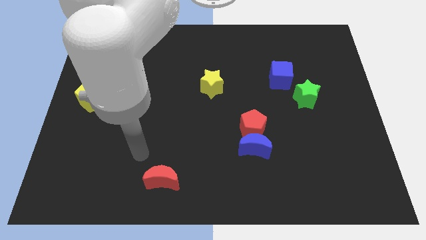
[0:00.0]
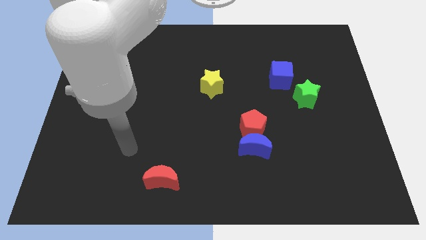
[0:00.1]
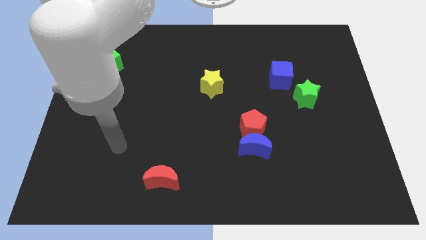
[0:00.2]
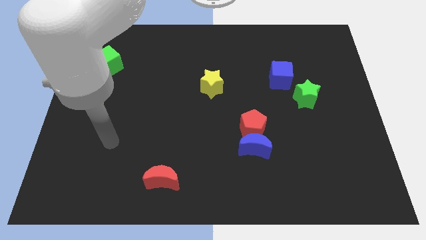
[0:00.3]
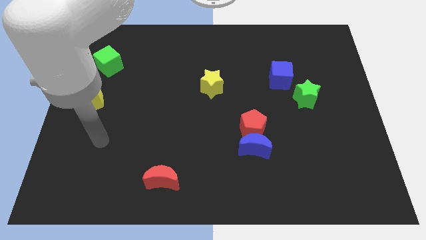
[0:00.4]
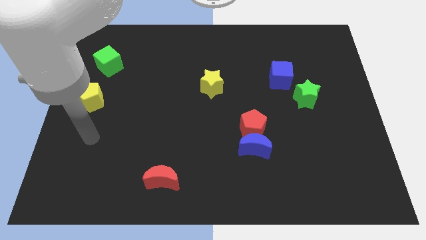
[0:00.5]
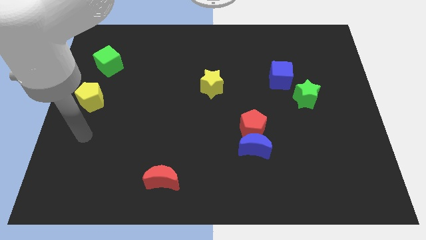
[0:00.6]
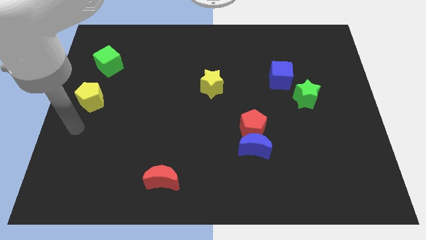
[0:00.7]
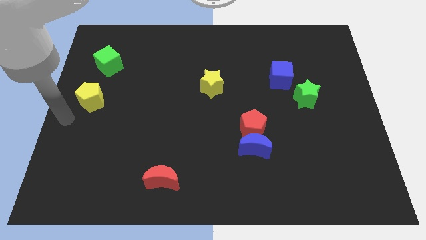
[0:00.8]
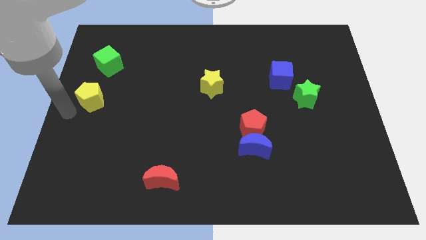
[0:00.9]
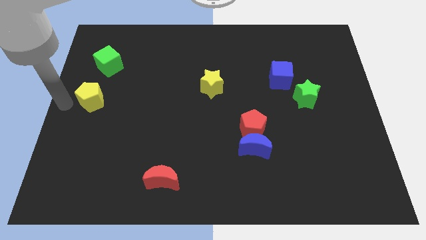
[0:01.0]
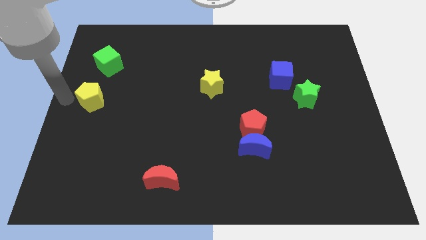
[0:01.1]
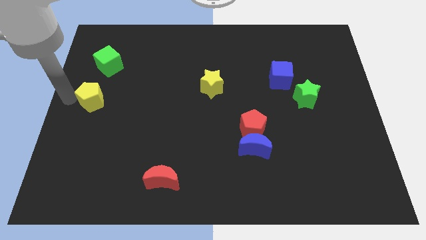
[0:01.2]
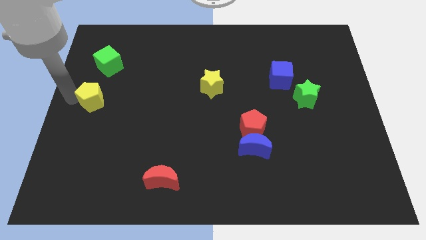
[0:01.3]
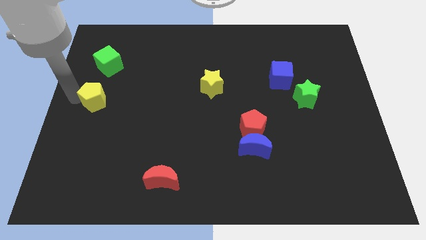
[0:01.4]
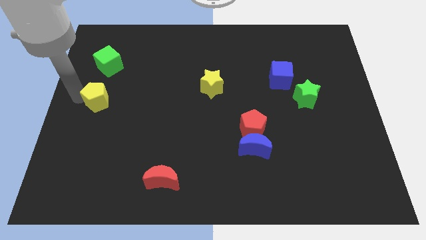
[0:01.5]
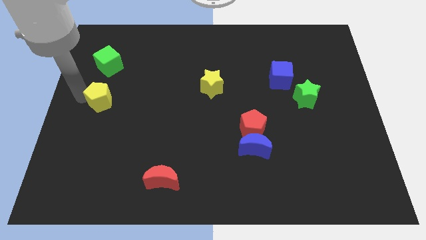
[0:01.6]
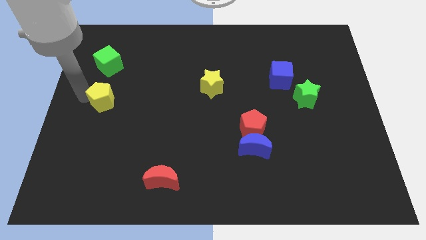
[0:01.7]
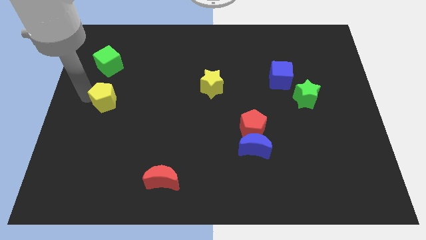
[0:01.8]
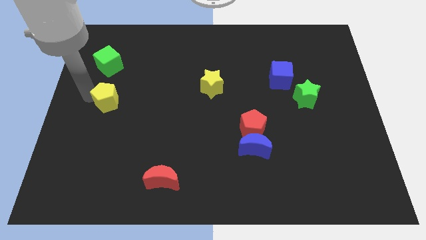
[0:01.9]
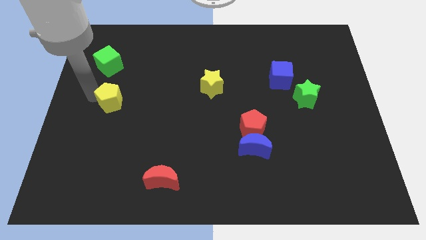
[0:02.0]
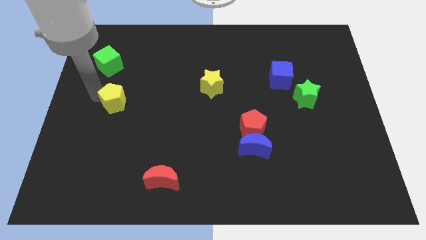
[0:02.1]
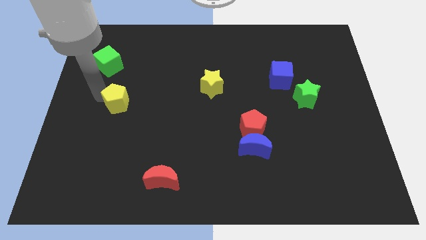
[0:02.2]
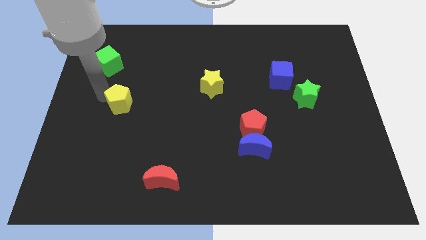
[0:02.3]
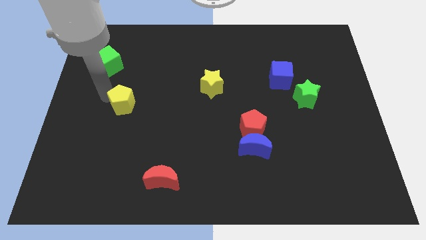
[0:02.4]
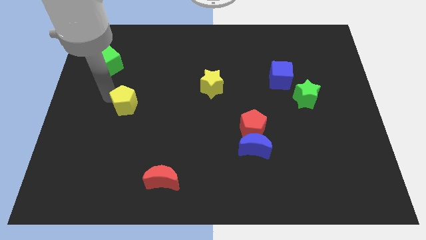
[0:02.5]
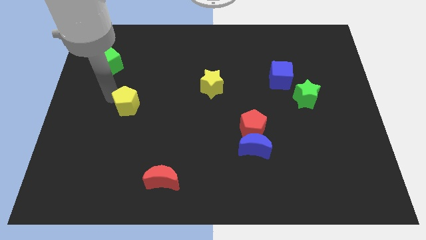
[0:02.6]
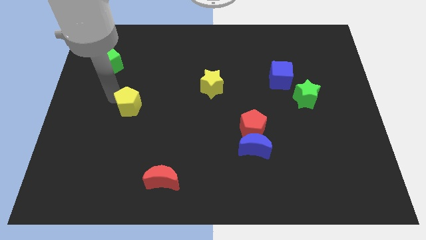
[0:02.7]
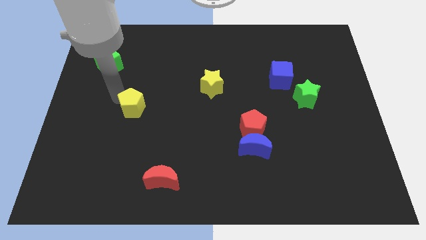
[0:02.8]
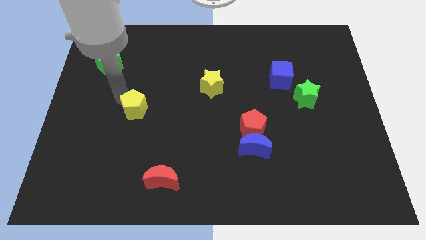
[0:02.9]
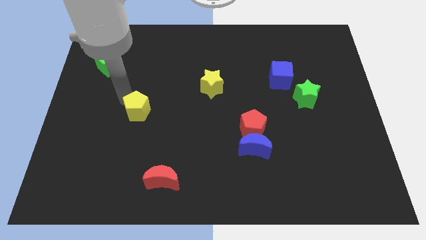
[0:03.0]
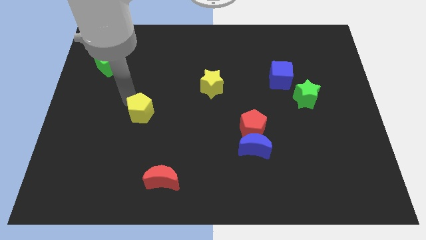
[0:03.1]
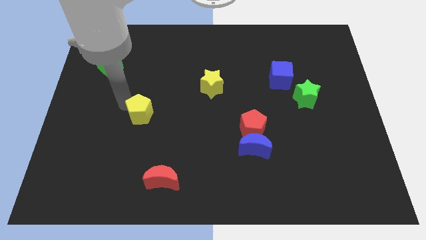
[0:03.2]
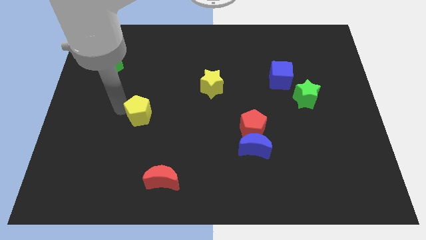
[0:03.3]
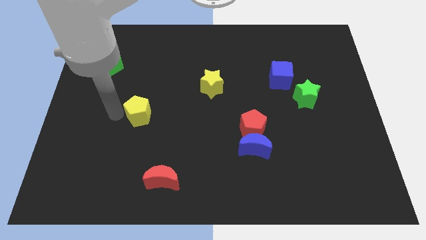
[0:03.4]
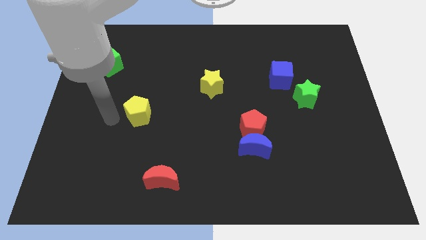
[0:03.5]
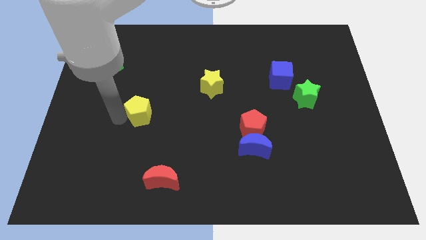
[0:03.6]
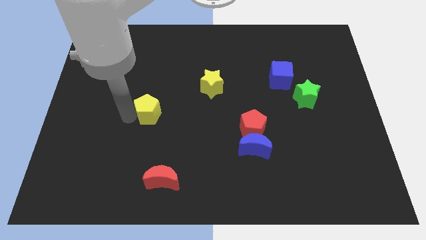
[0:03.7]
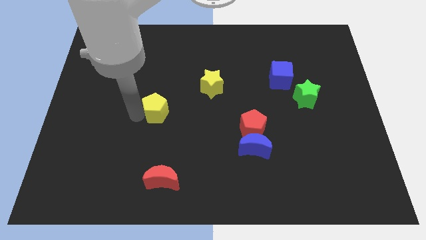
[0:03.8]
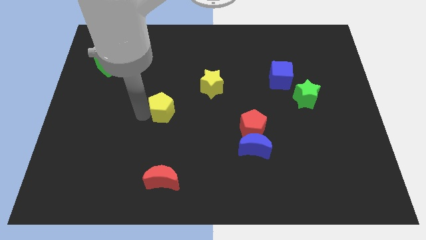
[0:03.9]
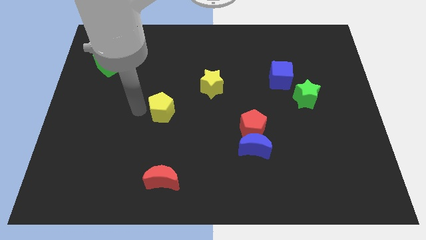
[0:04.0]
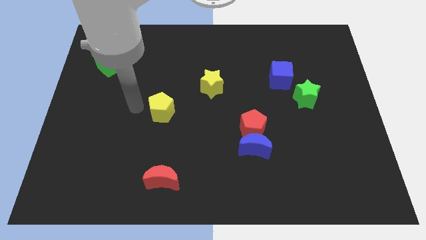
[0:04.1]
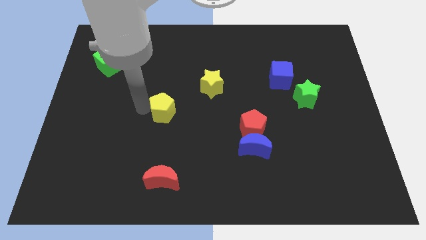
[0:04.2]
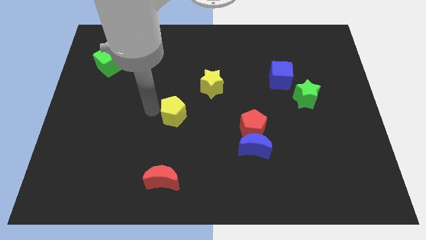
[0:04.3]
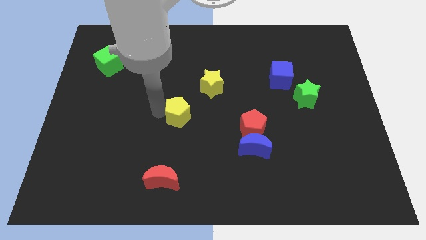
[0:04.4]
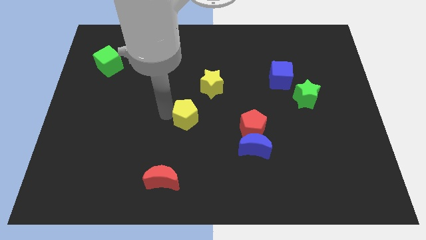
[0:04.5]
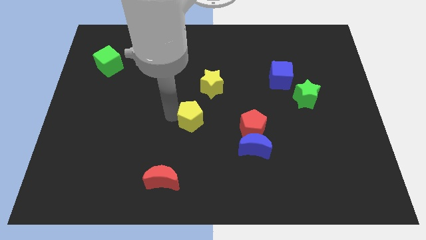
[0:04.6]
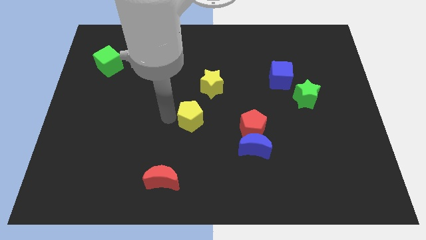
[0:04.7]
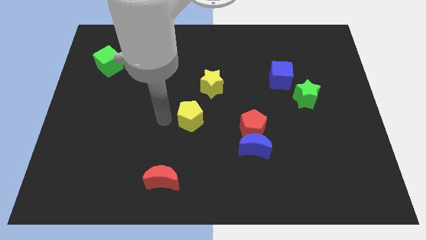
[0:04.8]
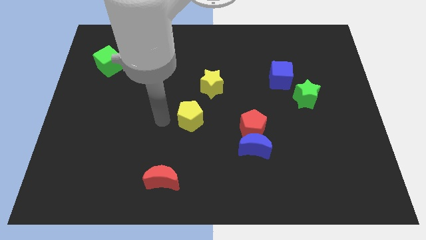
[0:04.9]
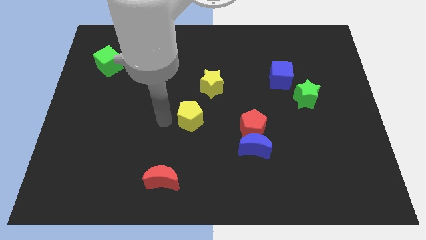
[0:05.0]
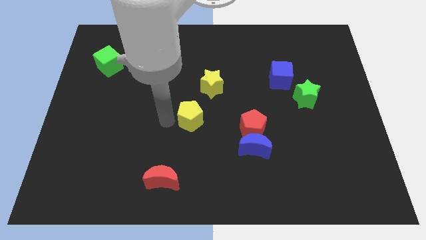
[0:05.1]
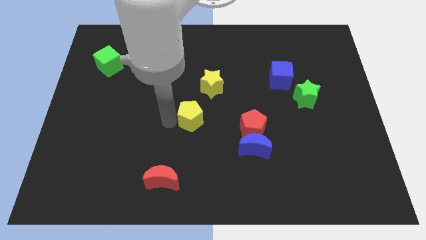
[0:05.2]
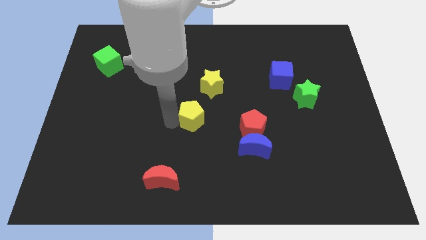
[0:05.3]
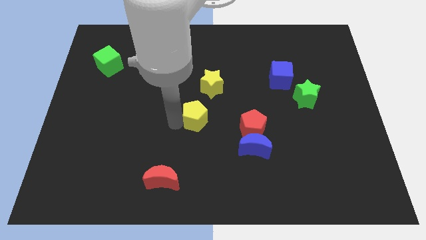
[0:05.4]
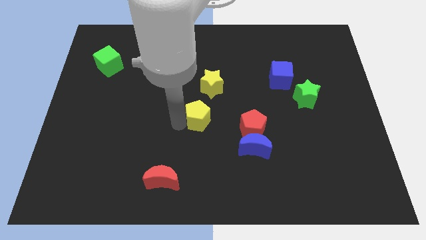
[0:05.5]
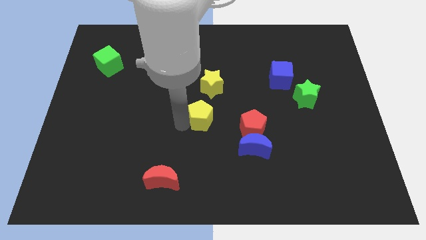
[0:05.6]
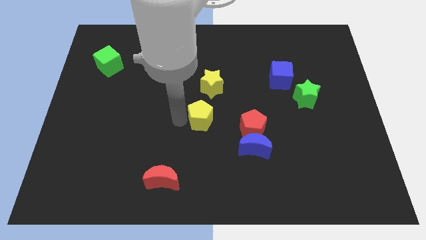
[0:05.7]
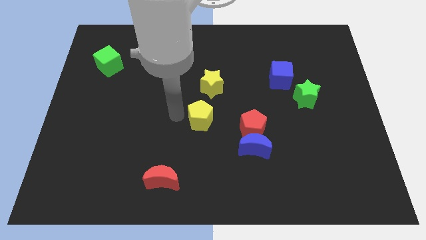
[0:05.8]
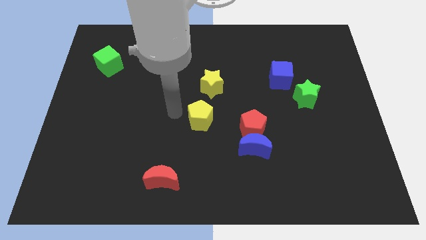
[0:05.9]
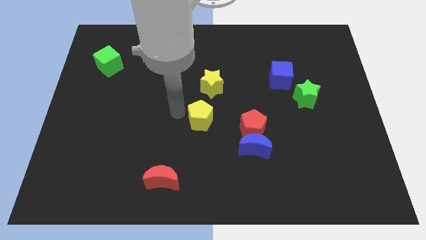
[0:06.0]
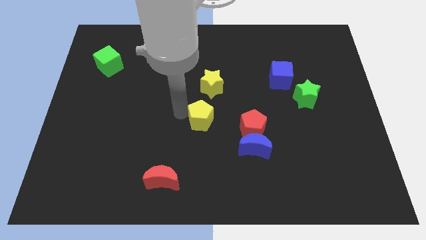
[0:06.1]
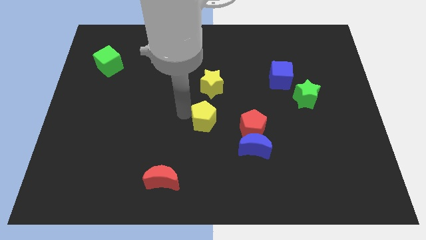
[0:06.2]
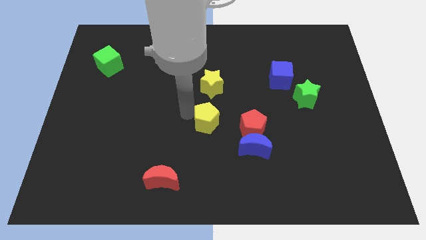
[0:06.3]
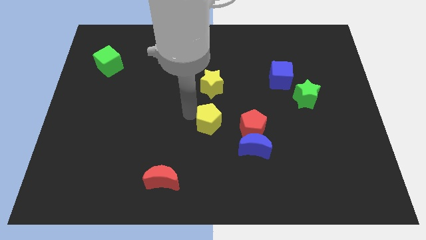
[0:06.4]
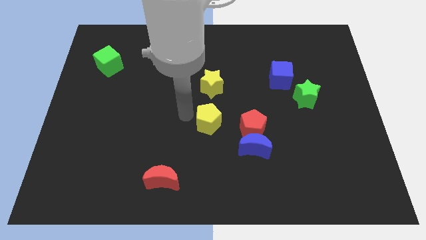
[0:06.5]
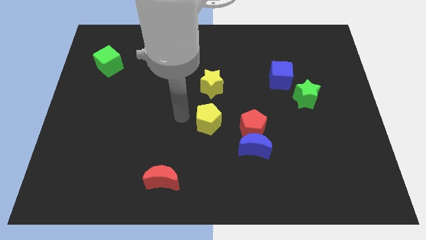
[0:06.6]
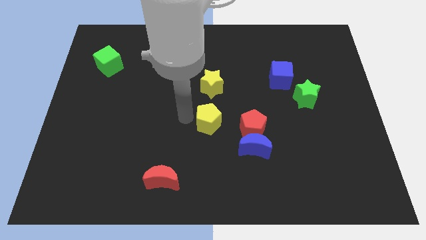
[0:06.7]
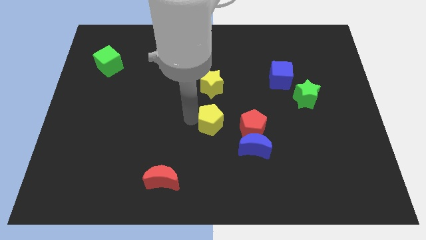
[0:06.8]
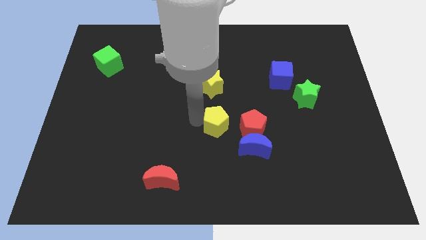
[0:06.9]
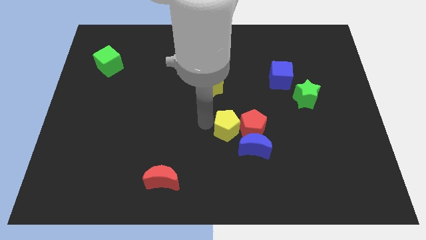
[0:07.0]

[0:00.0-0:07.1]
slide the yellow pentagon close to the red pentagon

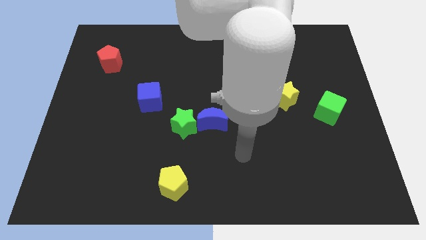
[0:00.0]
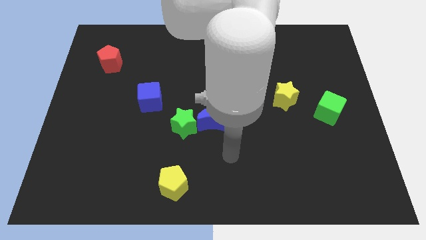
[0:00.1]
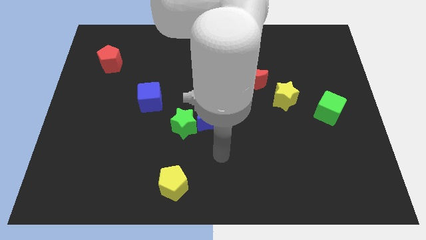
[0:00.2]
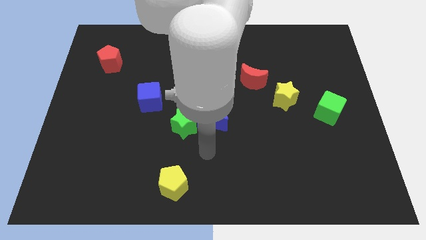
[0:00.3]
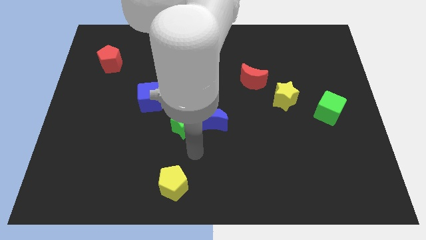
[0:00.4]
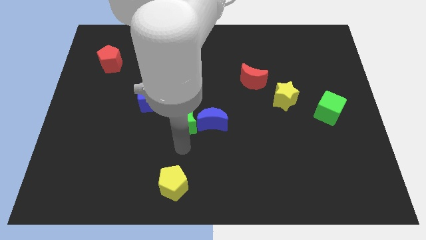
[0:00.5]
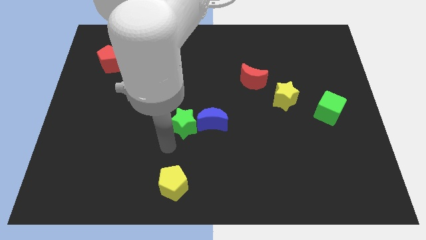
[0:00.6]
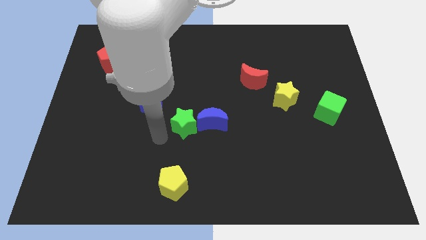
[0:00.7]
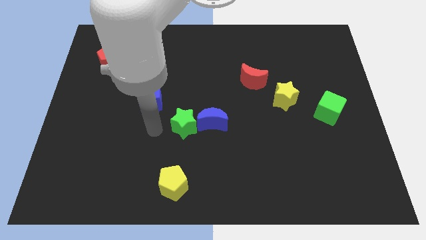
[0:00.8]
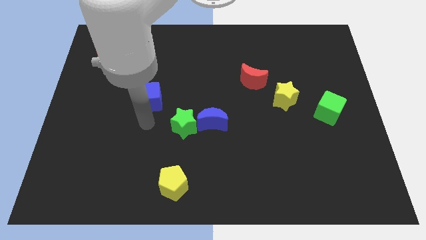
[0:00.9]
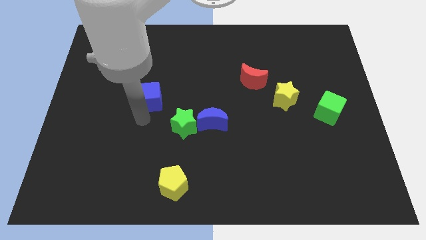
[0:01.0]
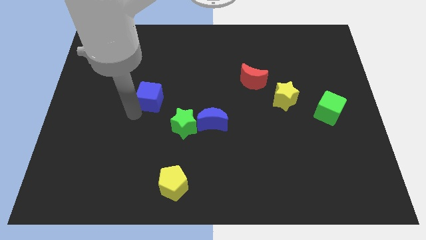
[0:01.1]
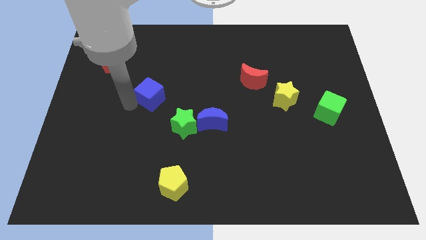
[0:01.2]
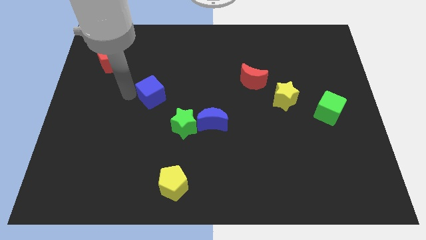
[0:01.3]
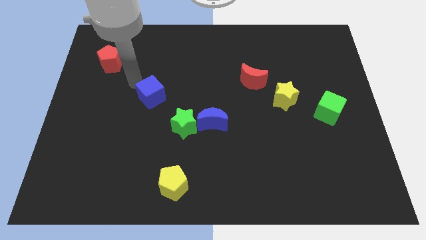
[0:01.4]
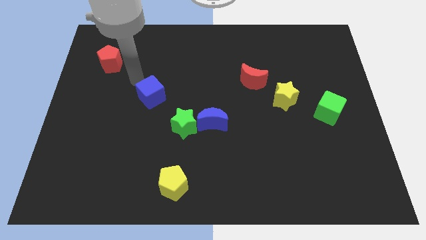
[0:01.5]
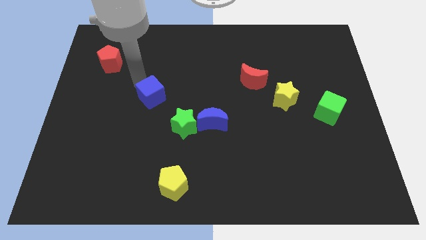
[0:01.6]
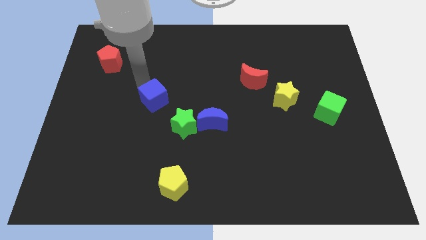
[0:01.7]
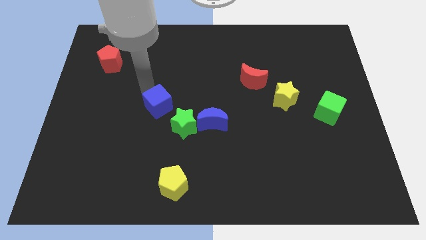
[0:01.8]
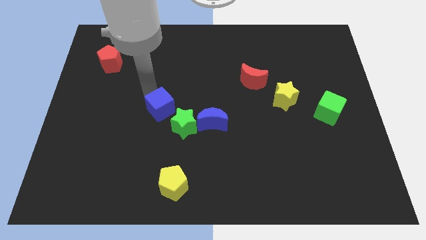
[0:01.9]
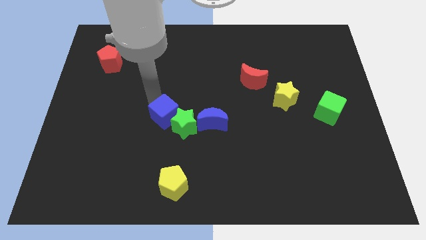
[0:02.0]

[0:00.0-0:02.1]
slide the blue cube close to the green star
